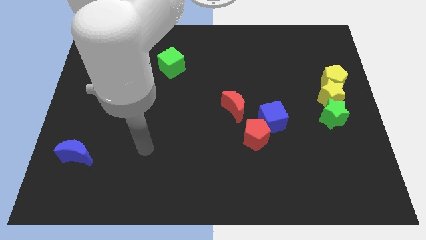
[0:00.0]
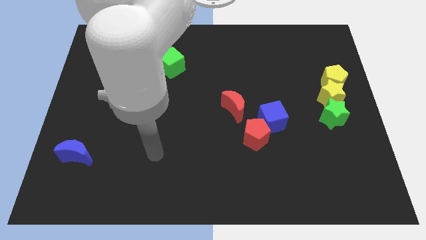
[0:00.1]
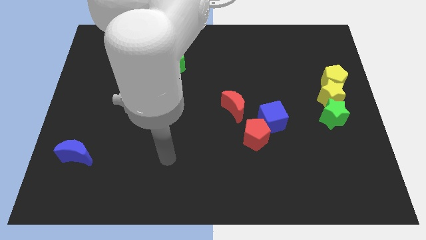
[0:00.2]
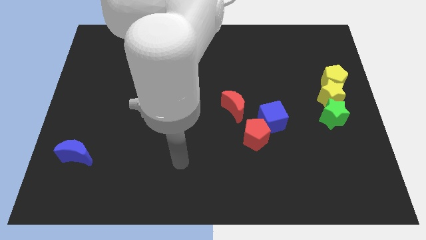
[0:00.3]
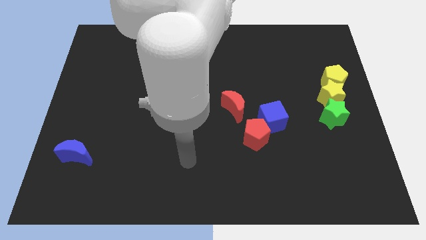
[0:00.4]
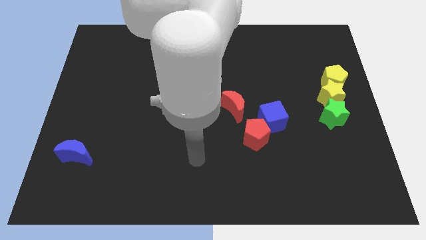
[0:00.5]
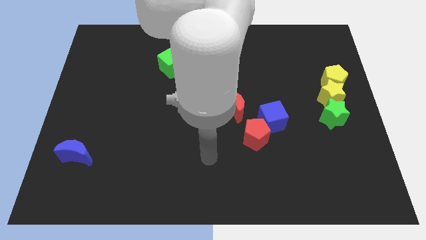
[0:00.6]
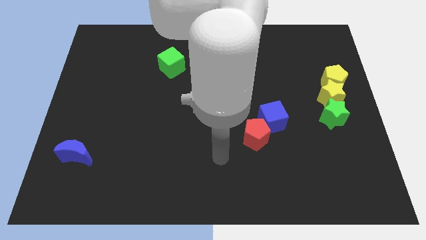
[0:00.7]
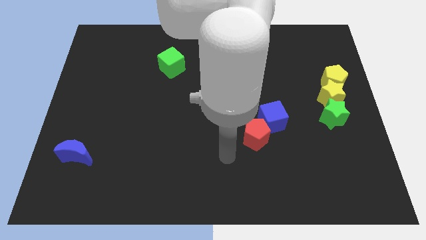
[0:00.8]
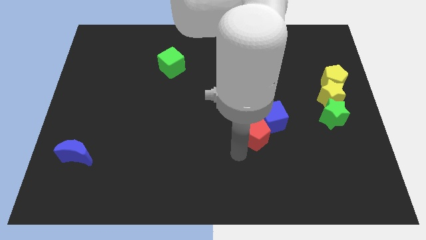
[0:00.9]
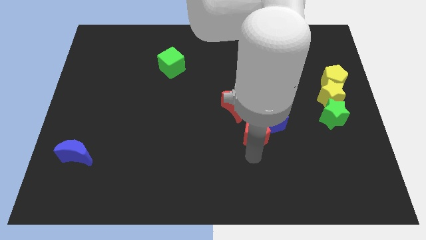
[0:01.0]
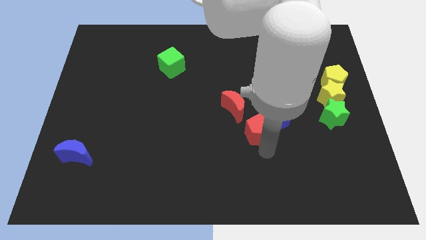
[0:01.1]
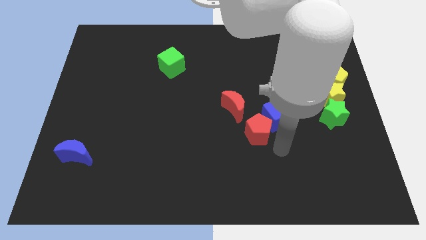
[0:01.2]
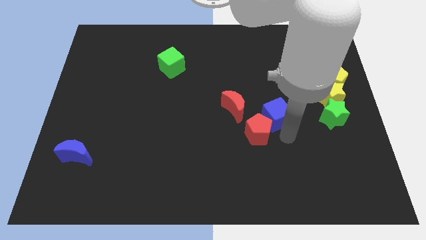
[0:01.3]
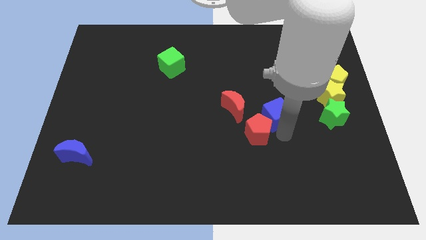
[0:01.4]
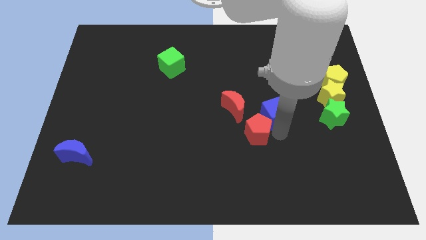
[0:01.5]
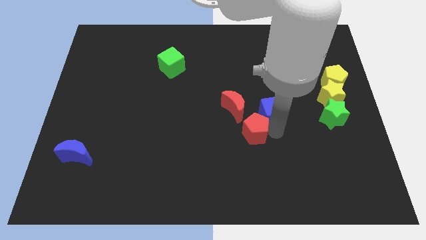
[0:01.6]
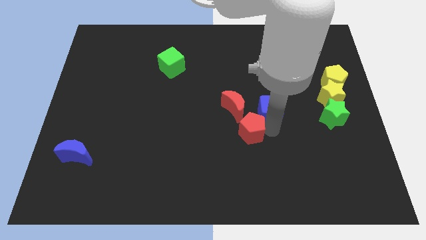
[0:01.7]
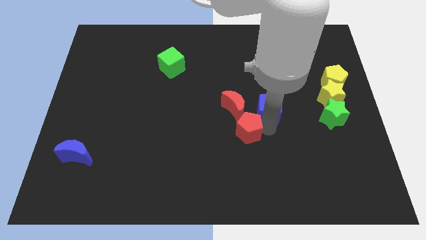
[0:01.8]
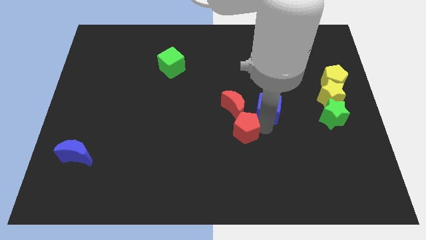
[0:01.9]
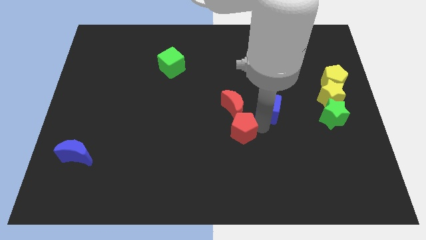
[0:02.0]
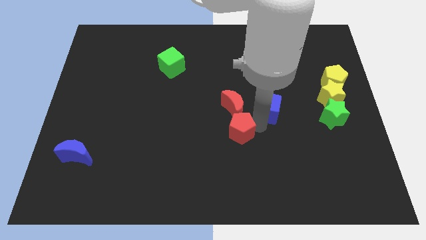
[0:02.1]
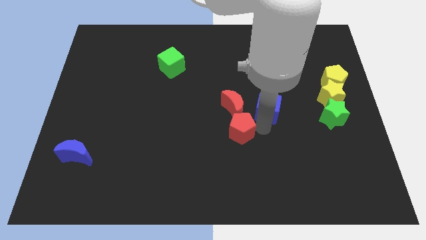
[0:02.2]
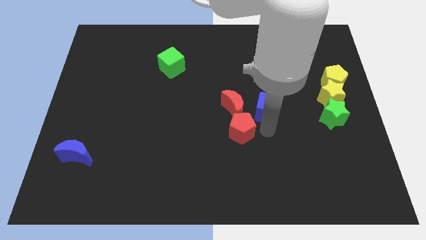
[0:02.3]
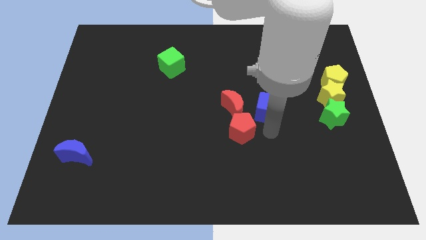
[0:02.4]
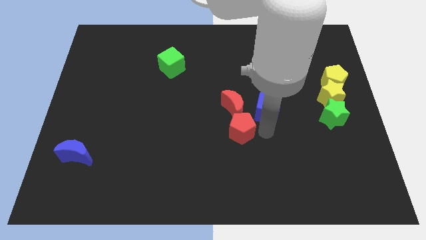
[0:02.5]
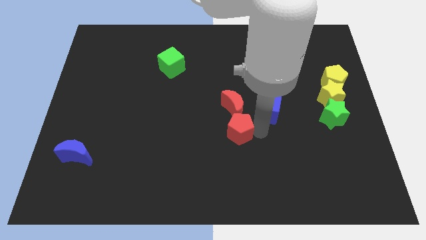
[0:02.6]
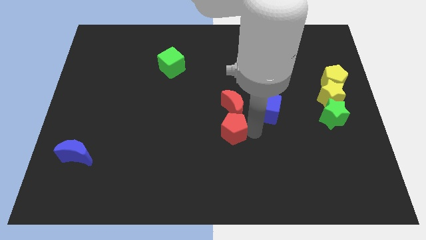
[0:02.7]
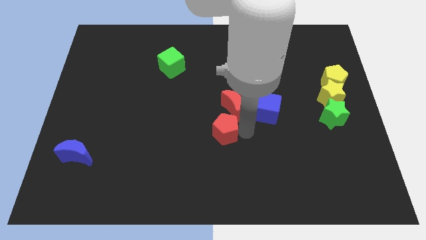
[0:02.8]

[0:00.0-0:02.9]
push the red pentagon left a bit

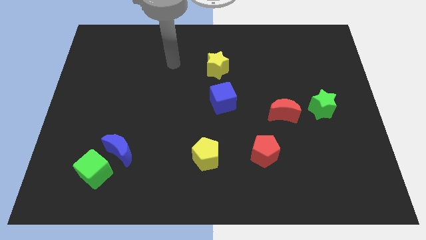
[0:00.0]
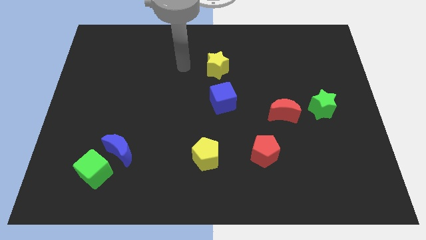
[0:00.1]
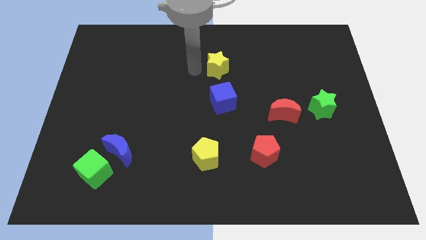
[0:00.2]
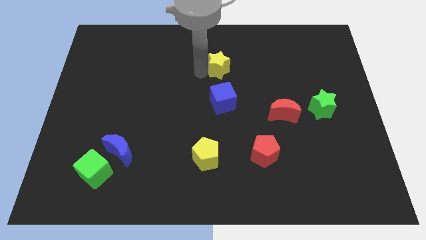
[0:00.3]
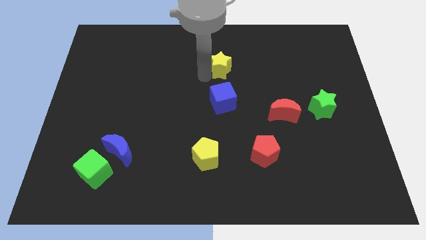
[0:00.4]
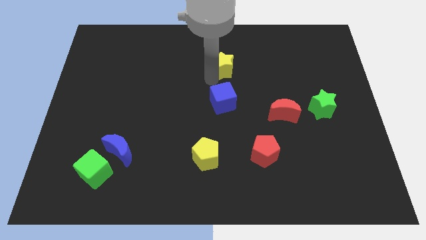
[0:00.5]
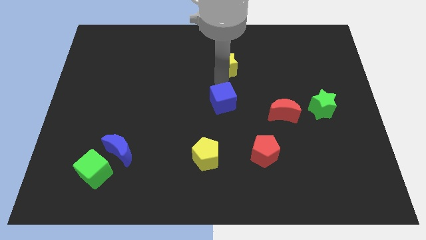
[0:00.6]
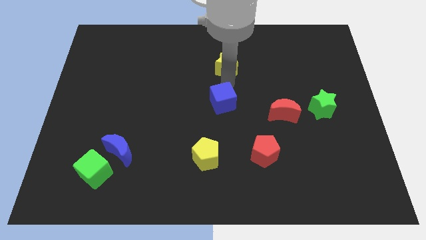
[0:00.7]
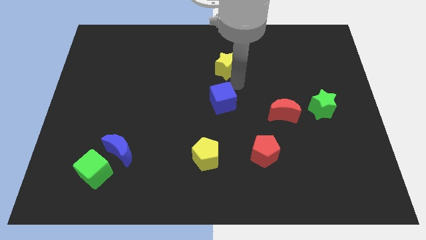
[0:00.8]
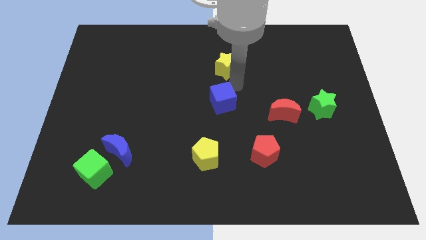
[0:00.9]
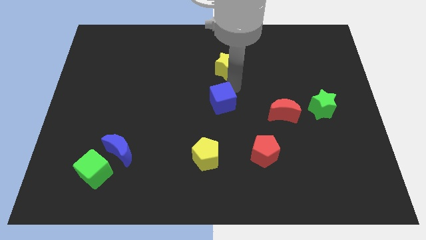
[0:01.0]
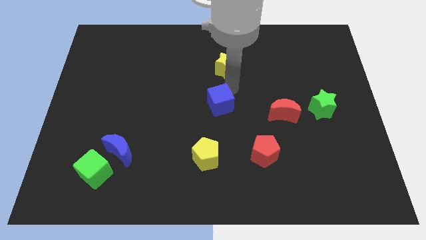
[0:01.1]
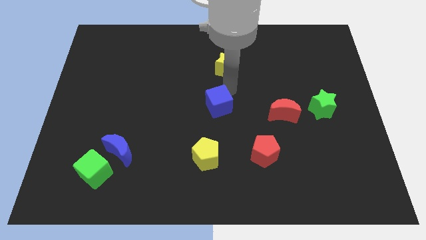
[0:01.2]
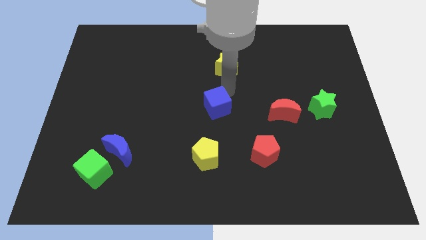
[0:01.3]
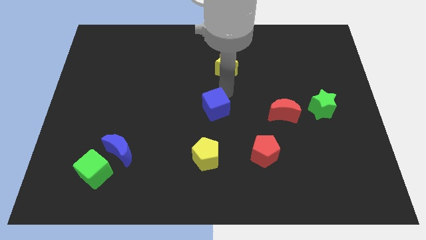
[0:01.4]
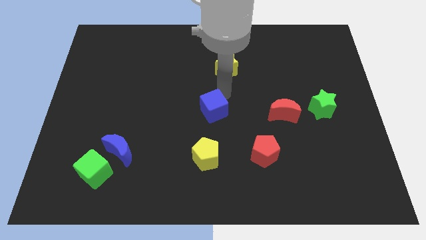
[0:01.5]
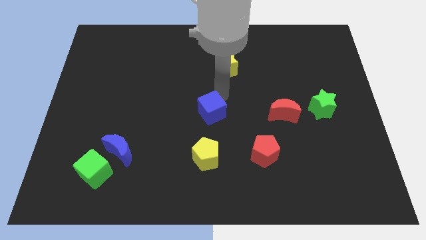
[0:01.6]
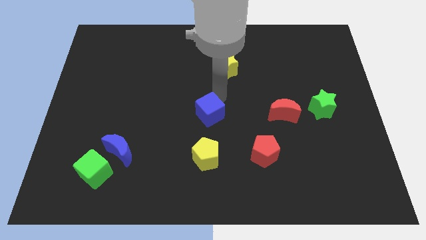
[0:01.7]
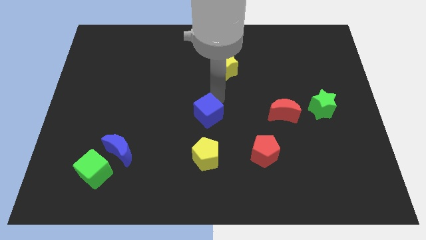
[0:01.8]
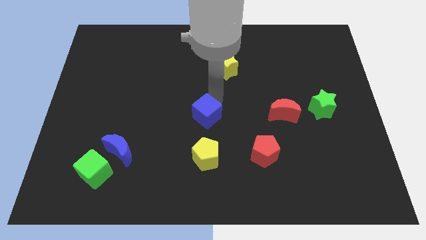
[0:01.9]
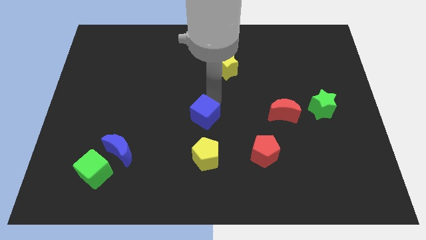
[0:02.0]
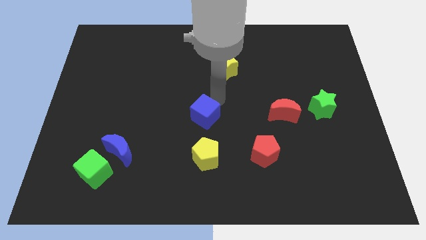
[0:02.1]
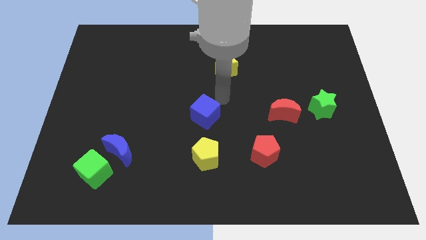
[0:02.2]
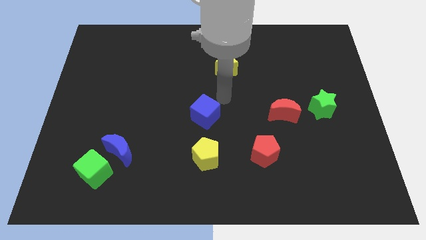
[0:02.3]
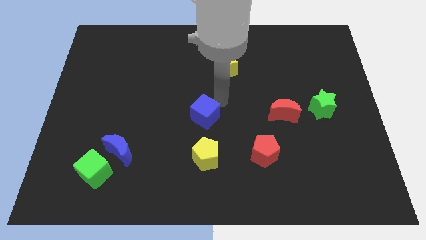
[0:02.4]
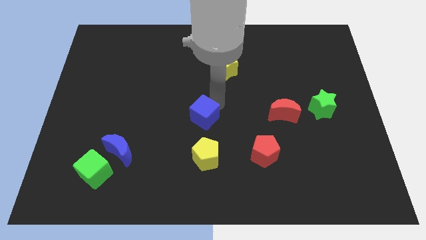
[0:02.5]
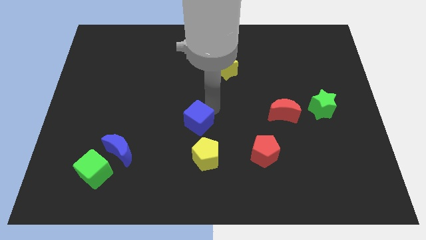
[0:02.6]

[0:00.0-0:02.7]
move the blue cube down and left diagonally a little bit

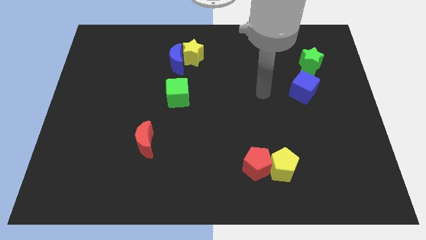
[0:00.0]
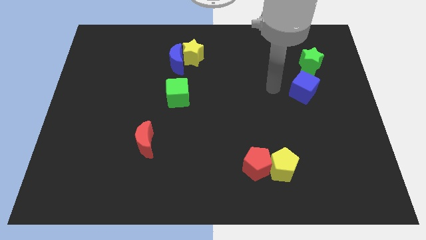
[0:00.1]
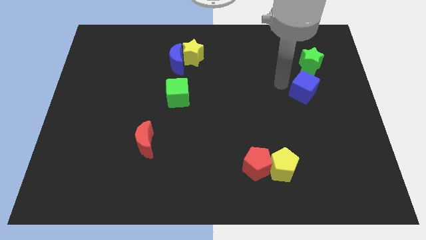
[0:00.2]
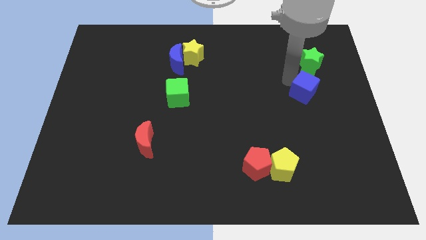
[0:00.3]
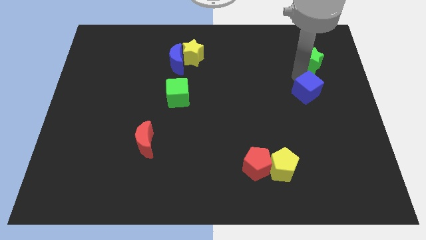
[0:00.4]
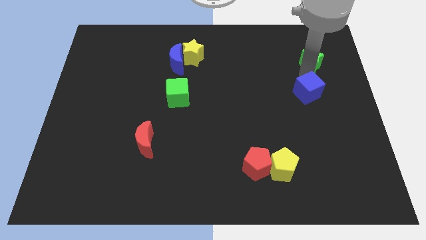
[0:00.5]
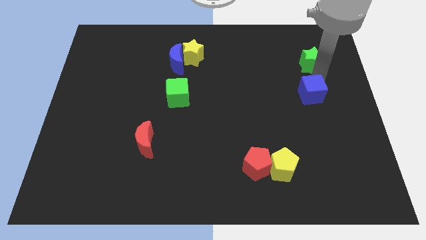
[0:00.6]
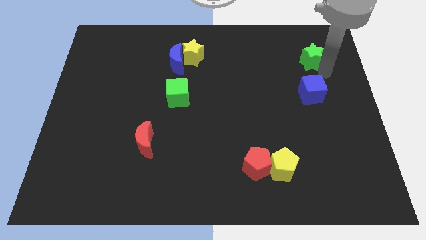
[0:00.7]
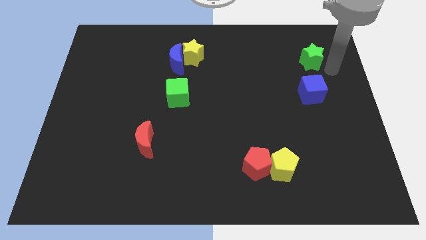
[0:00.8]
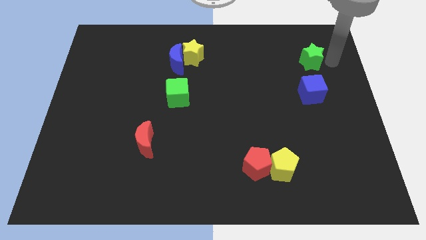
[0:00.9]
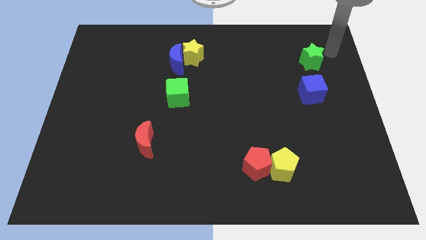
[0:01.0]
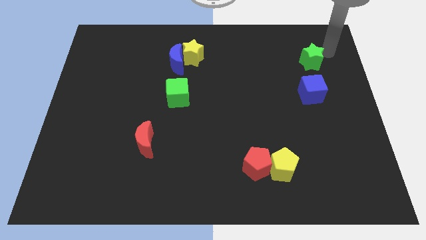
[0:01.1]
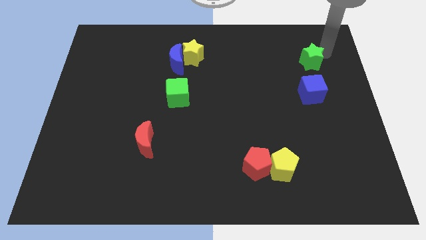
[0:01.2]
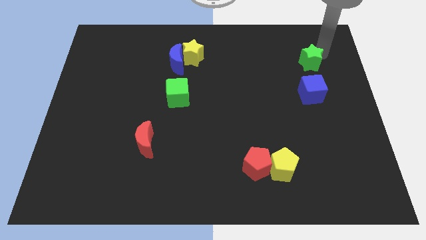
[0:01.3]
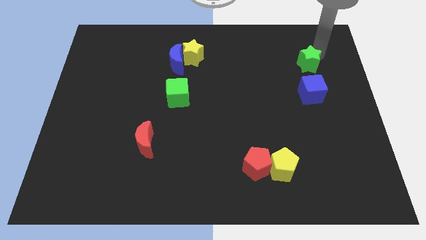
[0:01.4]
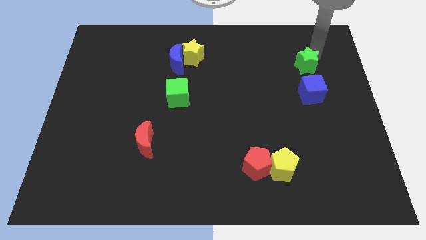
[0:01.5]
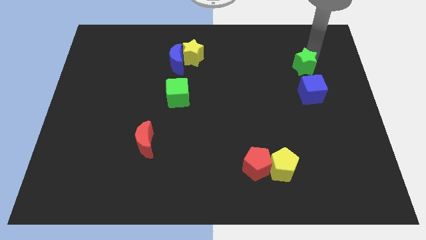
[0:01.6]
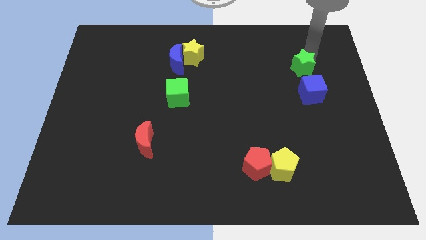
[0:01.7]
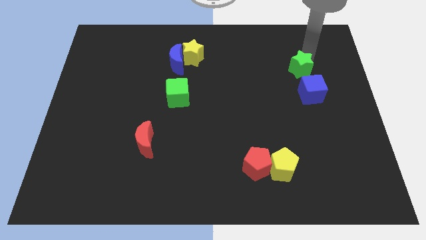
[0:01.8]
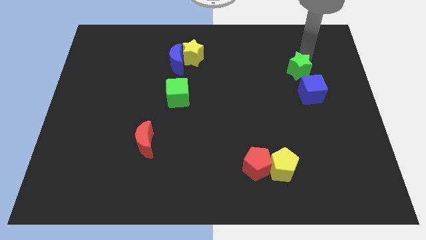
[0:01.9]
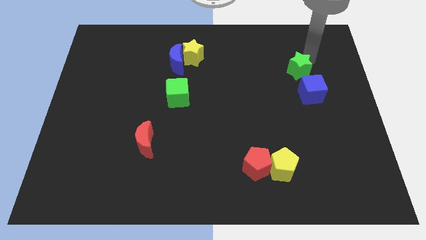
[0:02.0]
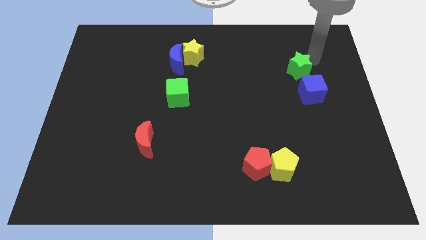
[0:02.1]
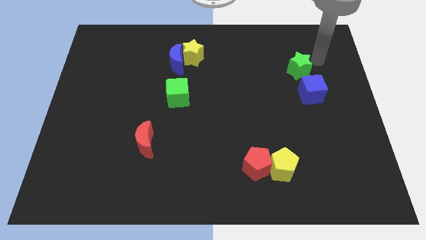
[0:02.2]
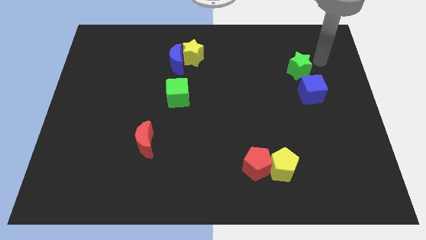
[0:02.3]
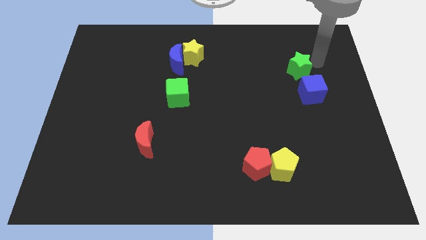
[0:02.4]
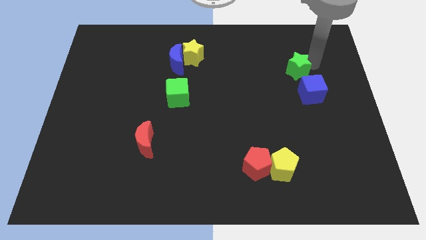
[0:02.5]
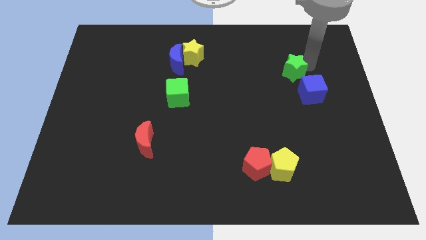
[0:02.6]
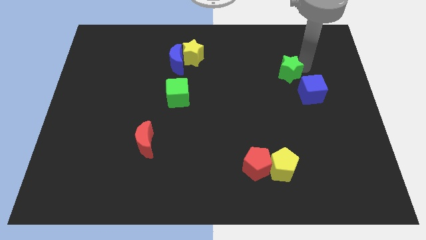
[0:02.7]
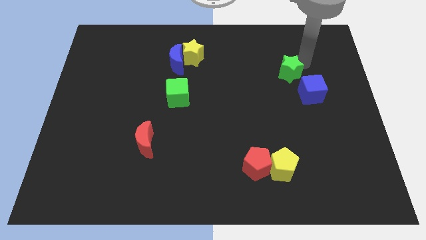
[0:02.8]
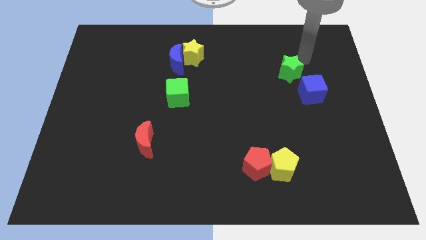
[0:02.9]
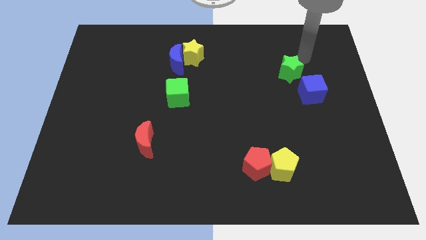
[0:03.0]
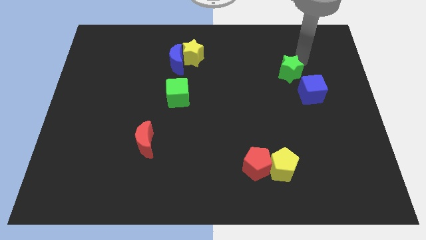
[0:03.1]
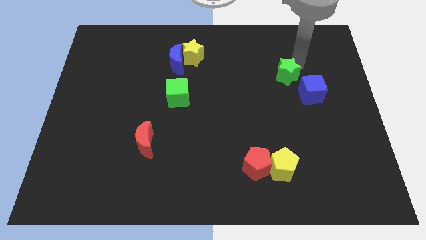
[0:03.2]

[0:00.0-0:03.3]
slightly move the green star downwards and to the left
